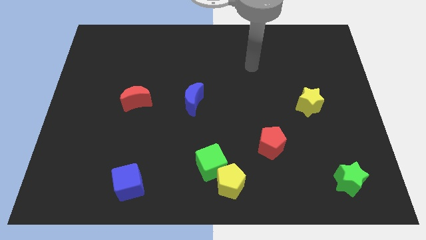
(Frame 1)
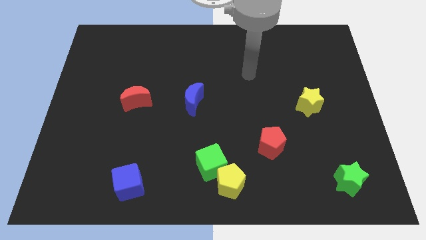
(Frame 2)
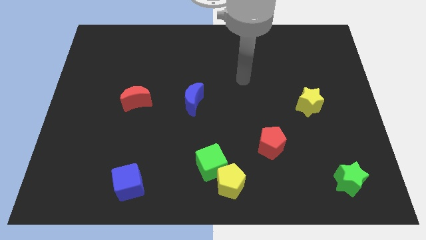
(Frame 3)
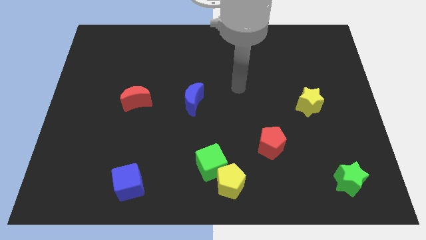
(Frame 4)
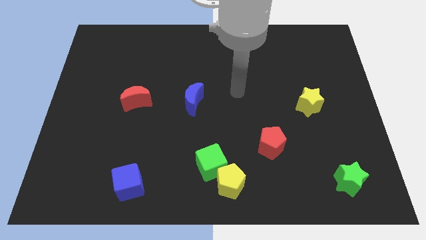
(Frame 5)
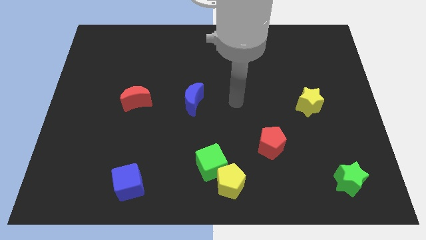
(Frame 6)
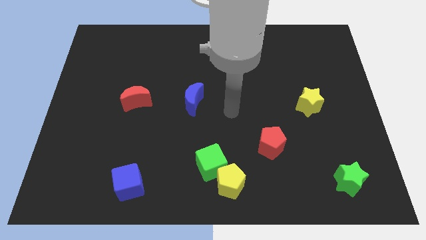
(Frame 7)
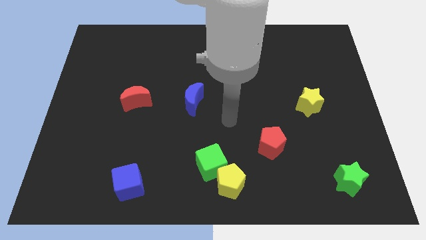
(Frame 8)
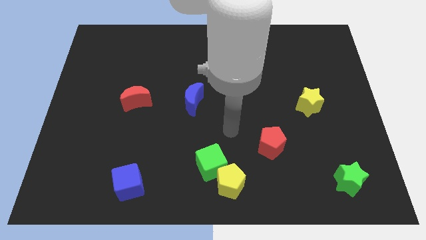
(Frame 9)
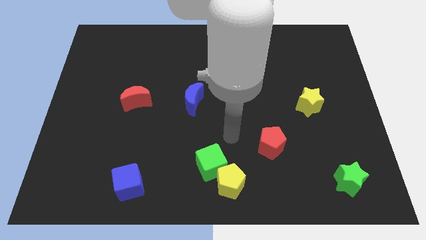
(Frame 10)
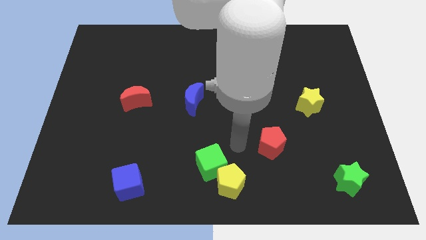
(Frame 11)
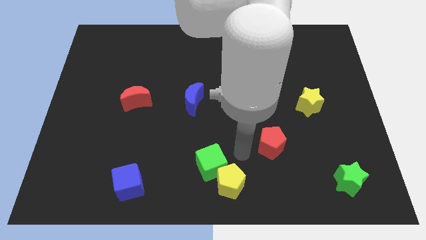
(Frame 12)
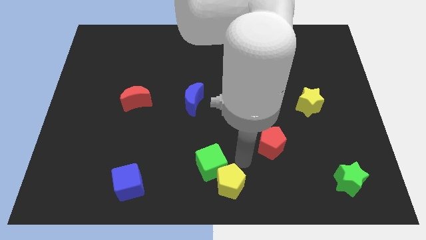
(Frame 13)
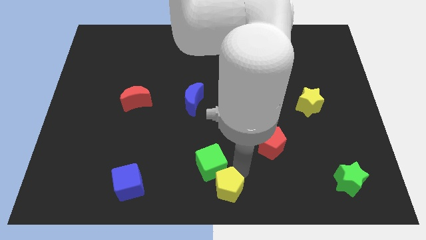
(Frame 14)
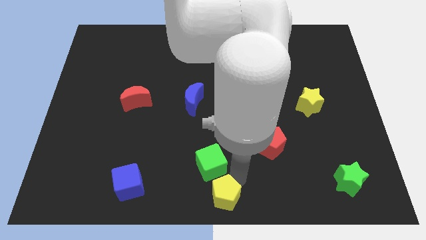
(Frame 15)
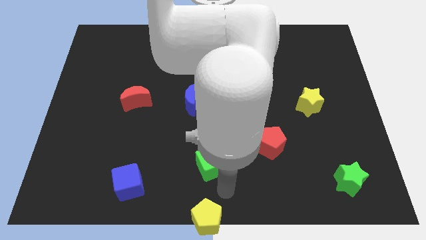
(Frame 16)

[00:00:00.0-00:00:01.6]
separate the green cube from the yellow pentagon

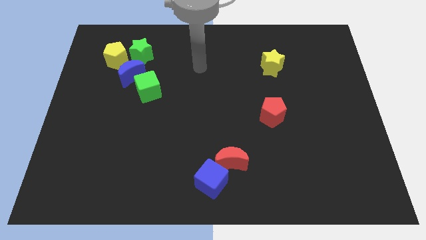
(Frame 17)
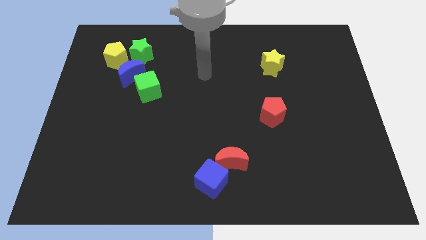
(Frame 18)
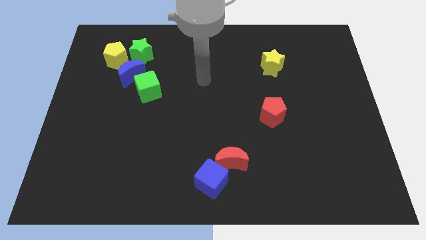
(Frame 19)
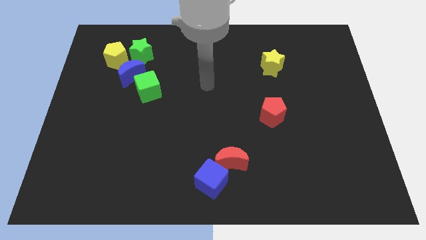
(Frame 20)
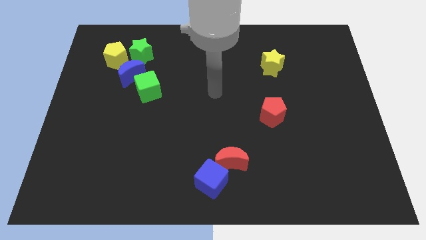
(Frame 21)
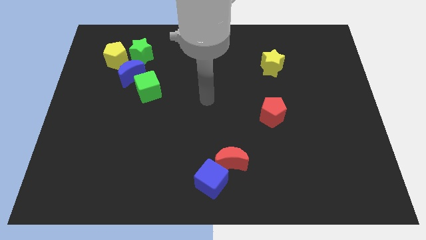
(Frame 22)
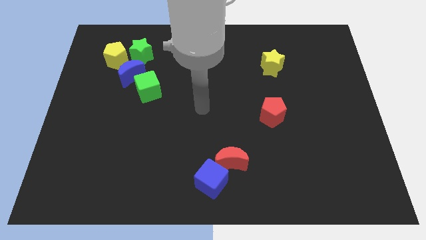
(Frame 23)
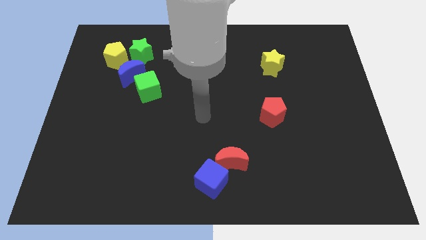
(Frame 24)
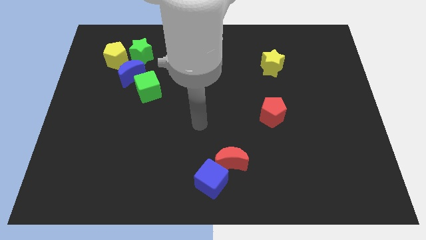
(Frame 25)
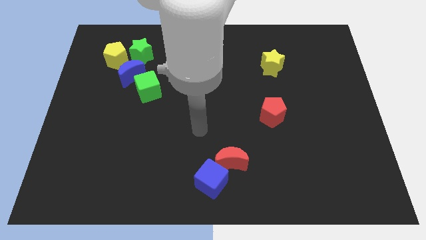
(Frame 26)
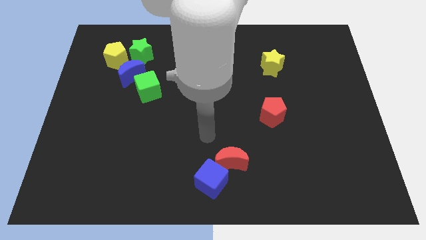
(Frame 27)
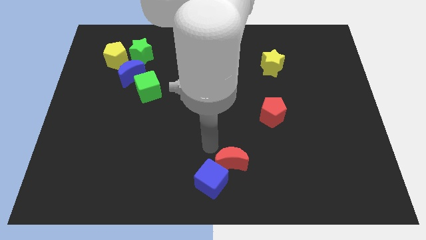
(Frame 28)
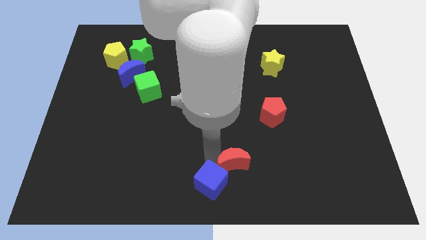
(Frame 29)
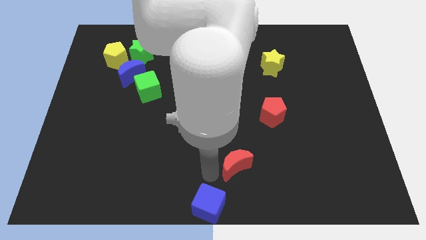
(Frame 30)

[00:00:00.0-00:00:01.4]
separate the red moon from the blue cube

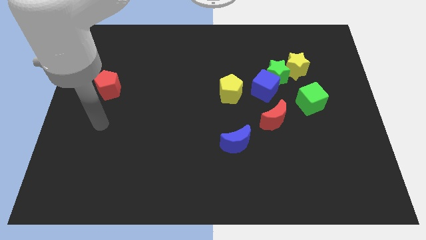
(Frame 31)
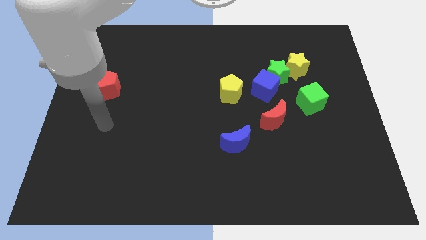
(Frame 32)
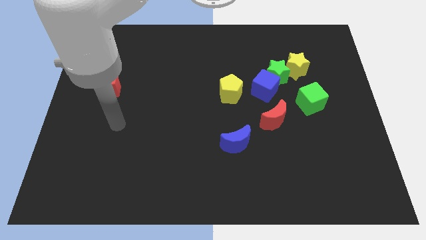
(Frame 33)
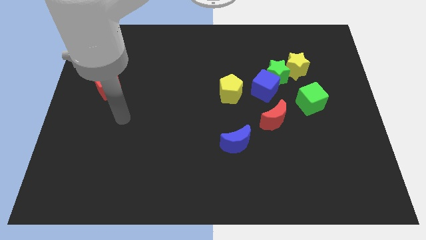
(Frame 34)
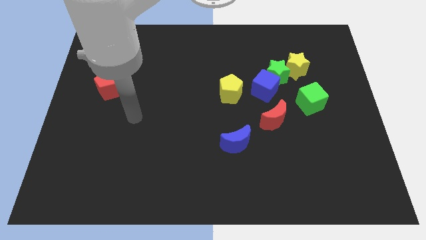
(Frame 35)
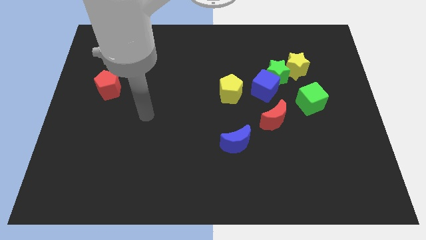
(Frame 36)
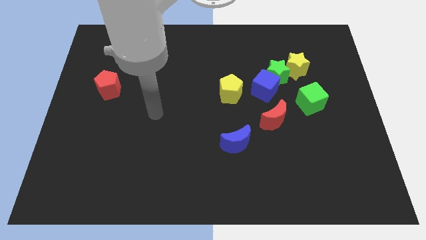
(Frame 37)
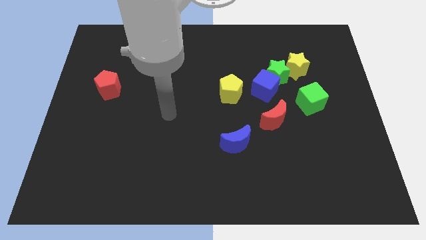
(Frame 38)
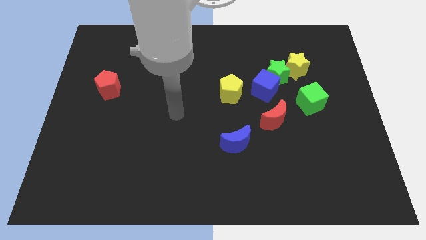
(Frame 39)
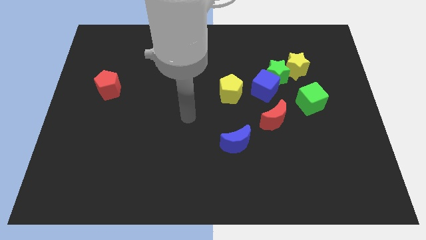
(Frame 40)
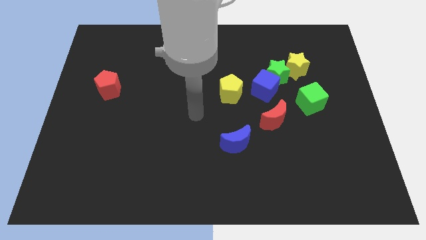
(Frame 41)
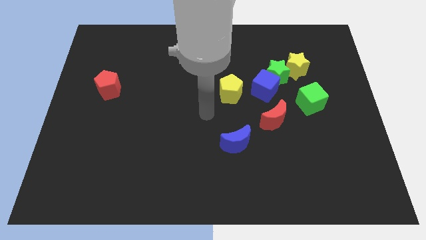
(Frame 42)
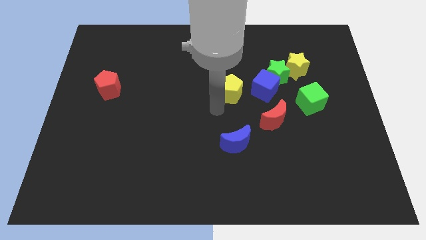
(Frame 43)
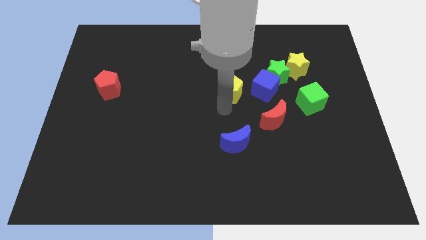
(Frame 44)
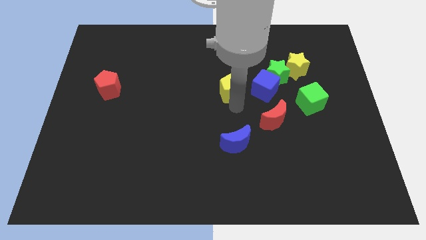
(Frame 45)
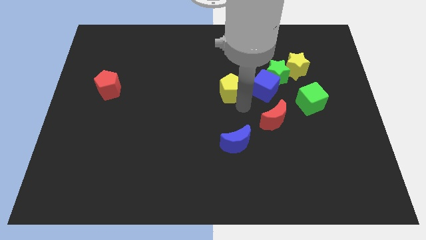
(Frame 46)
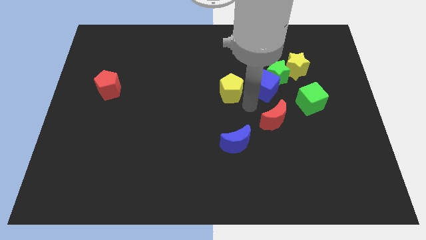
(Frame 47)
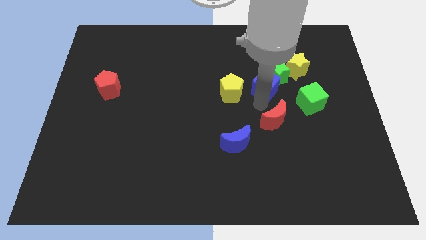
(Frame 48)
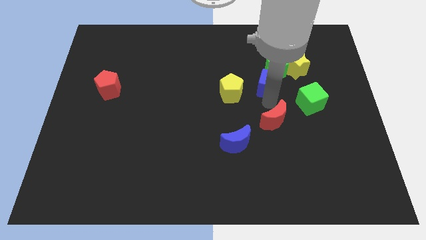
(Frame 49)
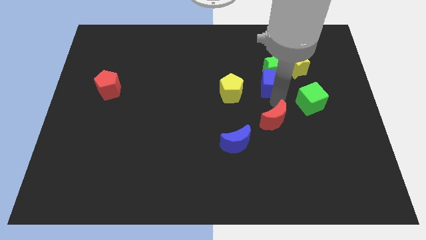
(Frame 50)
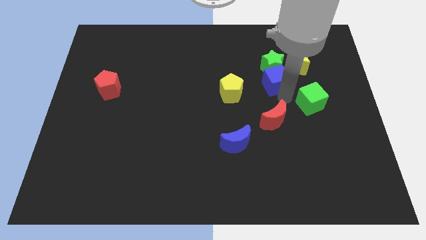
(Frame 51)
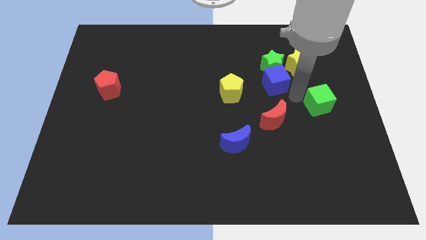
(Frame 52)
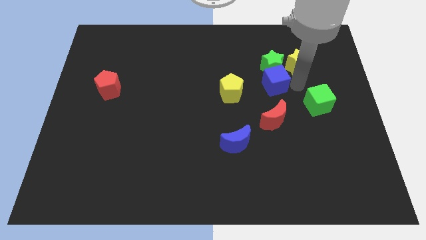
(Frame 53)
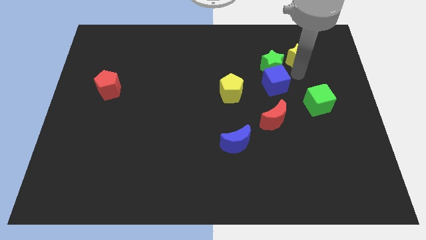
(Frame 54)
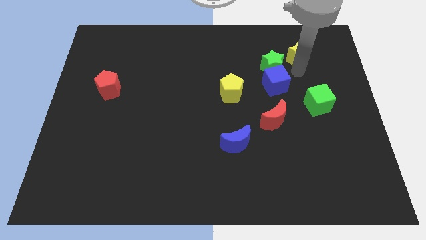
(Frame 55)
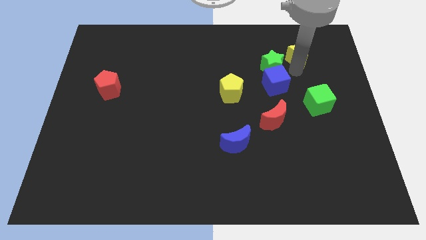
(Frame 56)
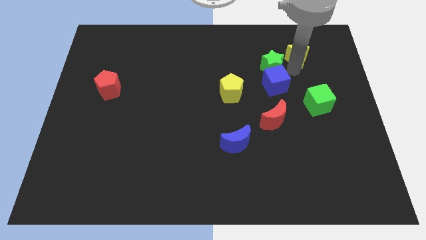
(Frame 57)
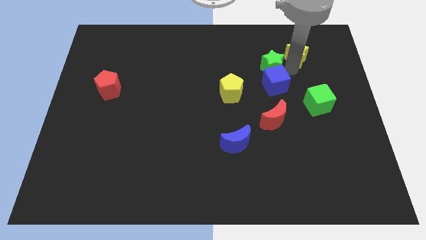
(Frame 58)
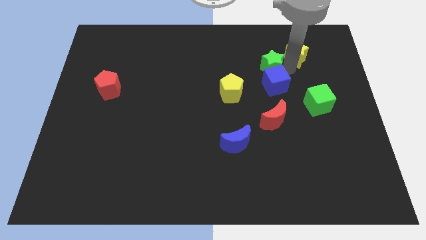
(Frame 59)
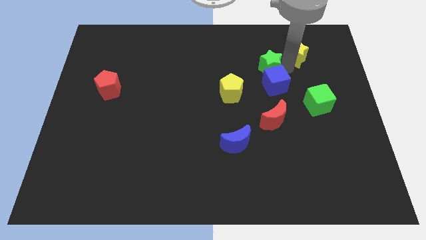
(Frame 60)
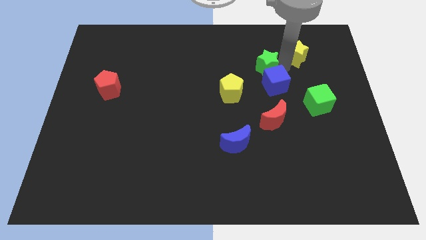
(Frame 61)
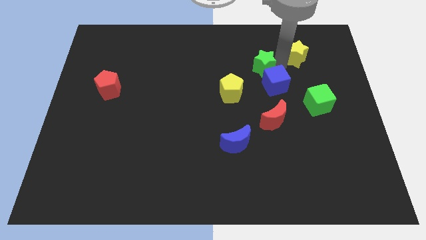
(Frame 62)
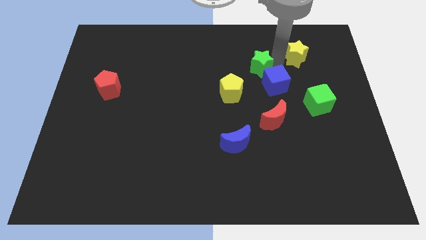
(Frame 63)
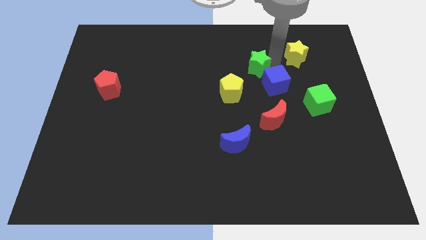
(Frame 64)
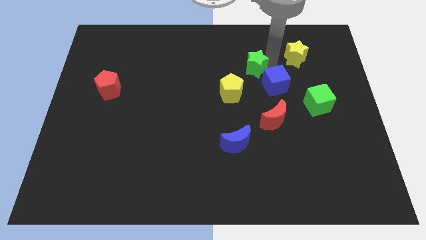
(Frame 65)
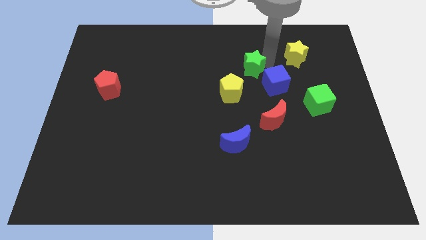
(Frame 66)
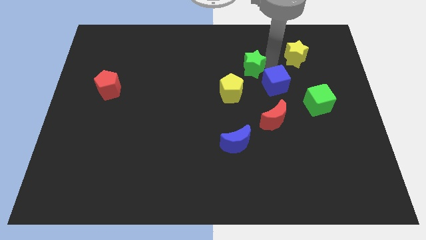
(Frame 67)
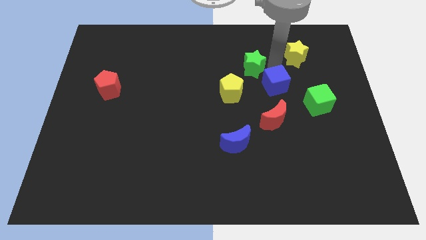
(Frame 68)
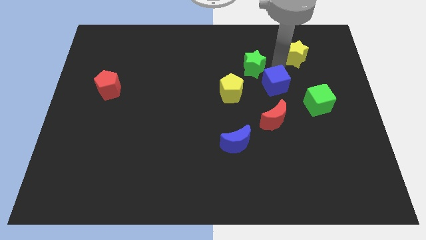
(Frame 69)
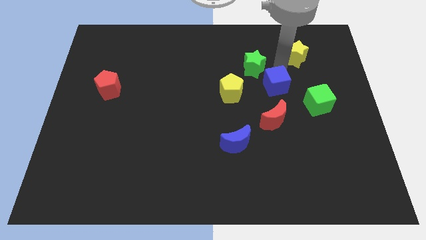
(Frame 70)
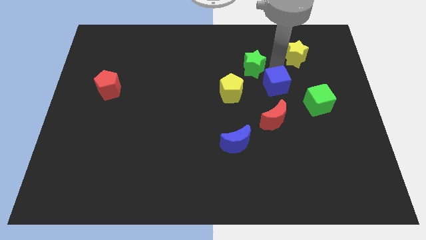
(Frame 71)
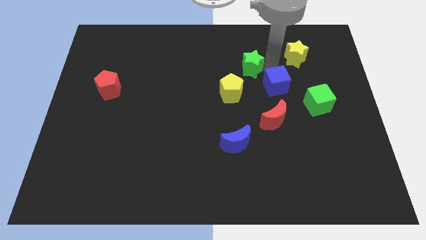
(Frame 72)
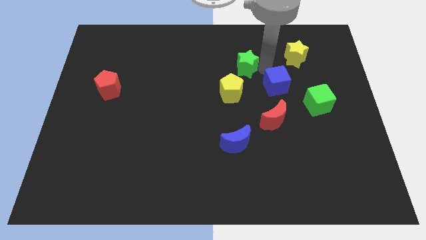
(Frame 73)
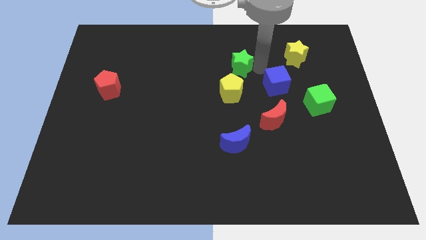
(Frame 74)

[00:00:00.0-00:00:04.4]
separate the green star from the blue cube and yellow star

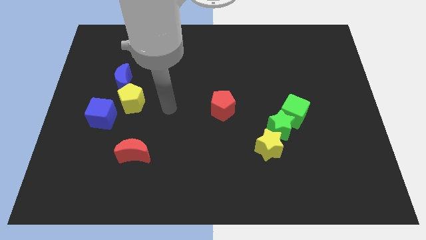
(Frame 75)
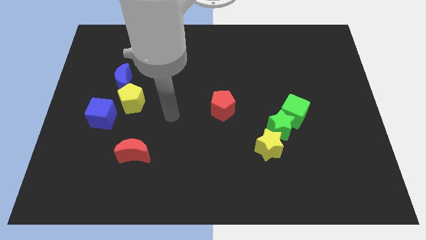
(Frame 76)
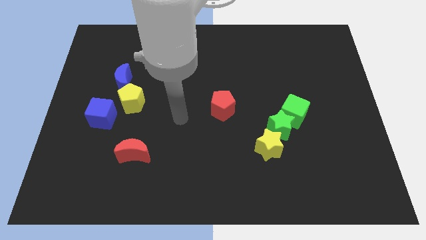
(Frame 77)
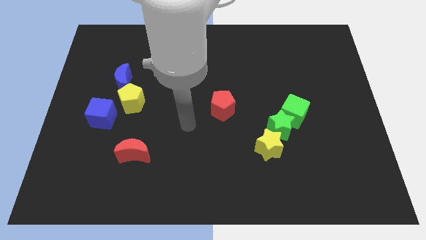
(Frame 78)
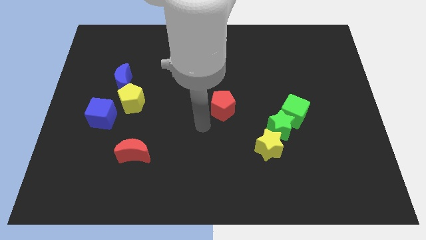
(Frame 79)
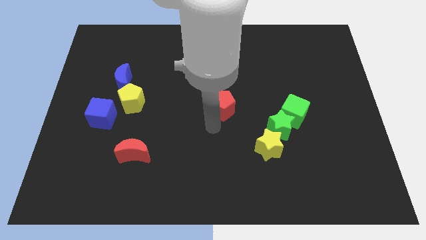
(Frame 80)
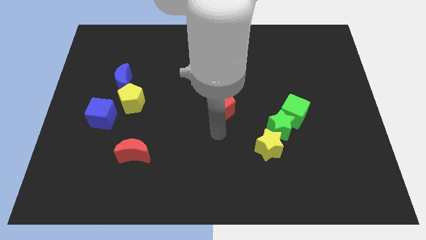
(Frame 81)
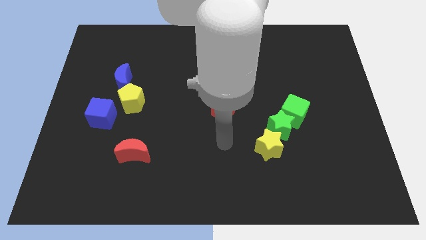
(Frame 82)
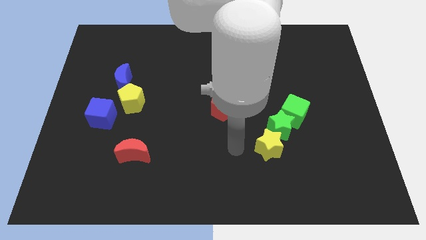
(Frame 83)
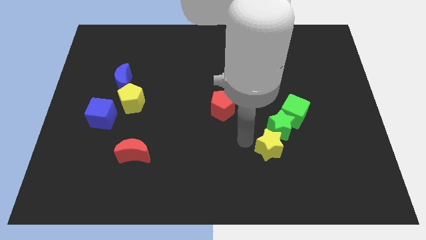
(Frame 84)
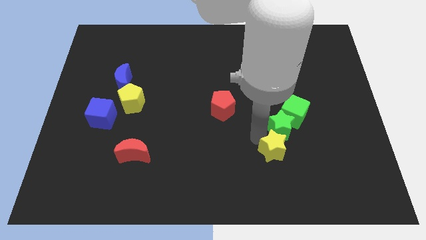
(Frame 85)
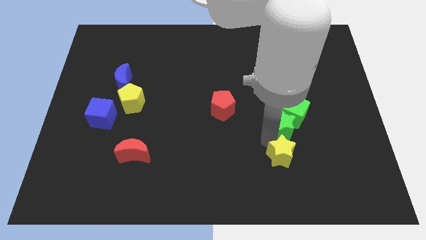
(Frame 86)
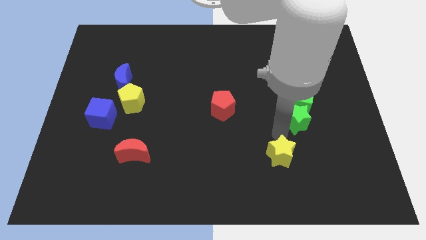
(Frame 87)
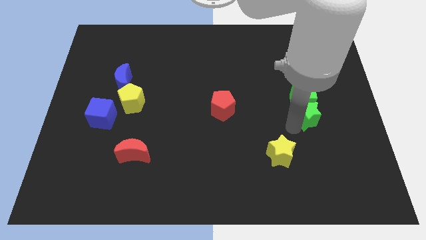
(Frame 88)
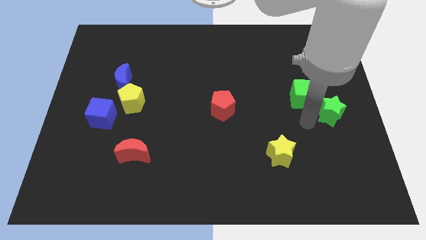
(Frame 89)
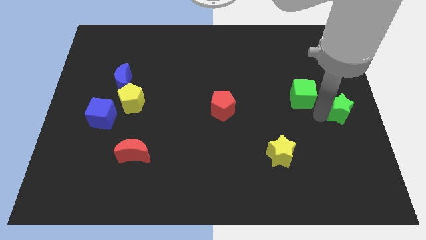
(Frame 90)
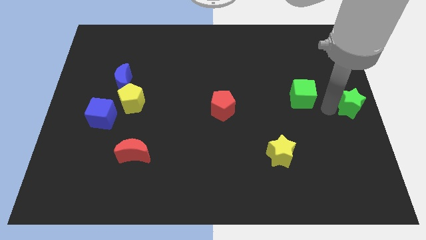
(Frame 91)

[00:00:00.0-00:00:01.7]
move the green cube away from the green star

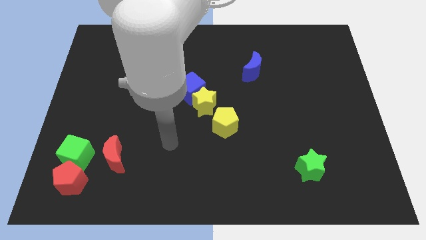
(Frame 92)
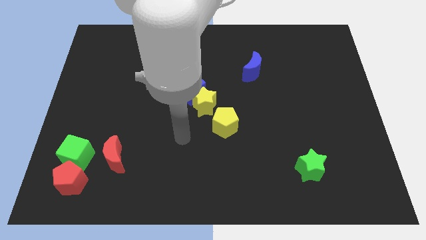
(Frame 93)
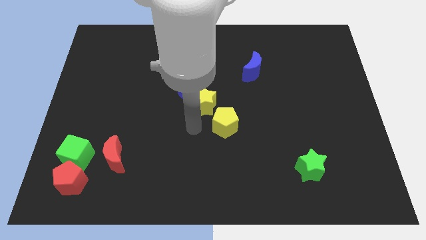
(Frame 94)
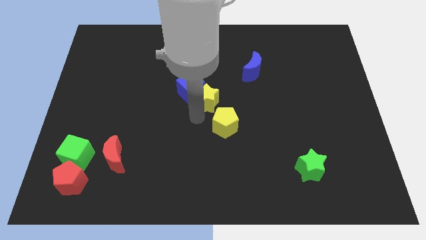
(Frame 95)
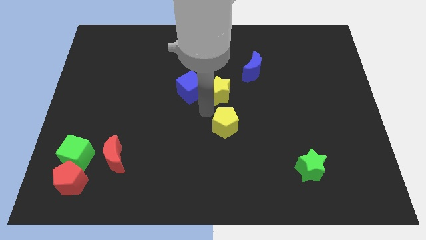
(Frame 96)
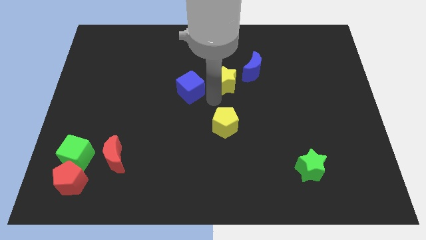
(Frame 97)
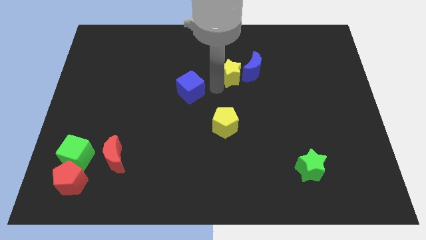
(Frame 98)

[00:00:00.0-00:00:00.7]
move the blue cube away from the yellow star
